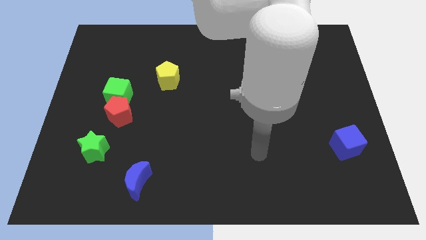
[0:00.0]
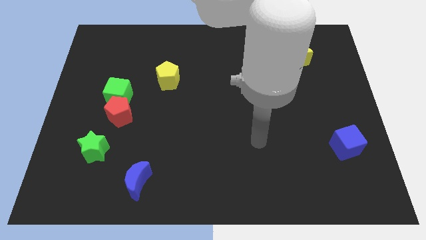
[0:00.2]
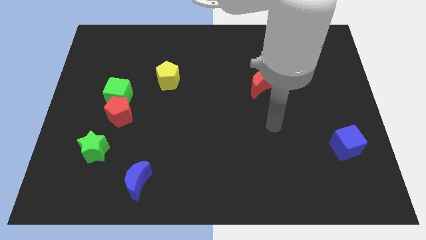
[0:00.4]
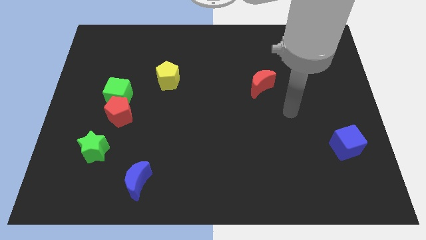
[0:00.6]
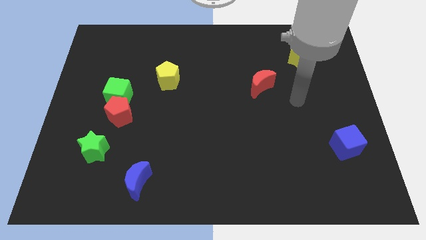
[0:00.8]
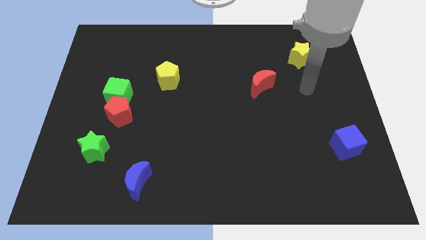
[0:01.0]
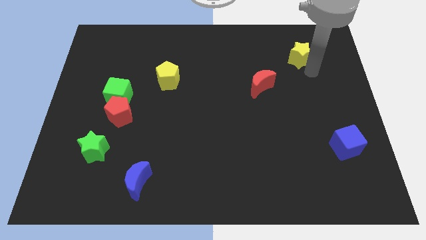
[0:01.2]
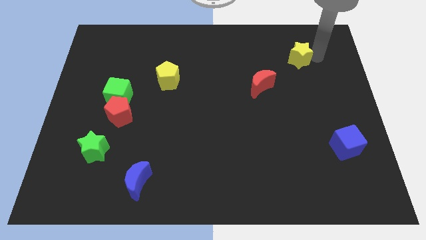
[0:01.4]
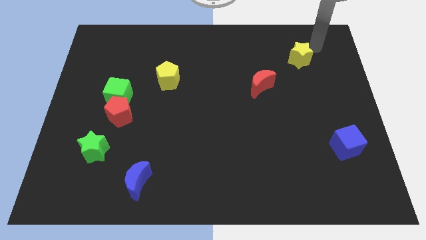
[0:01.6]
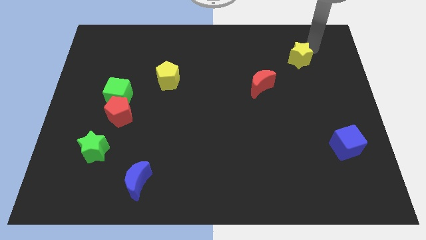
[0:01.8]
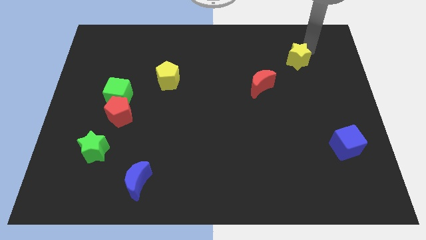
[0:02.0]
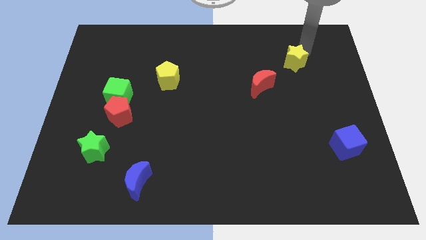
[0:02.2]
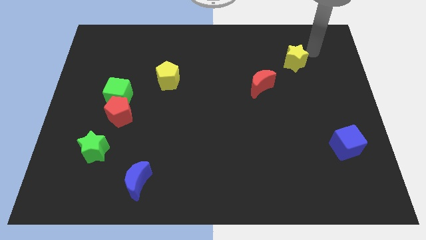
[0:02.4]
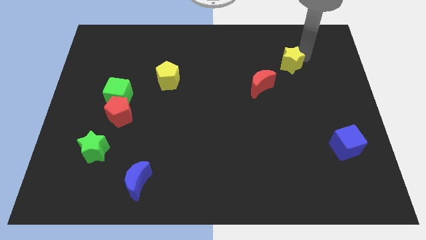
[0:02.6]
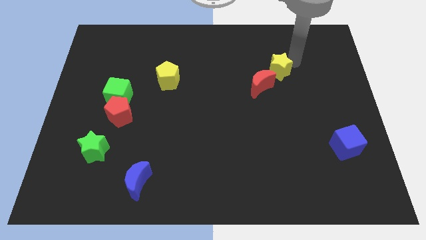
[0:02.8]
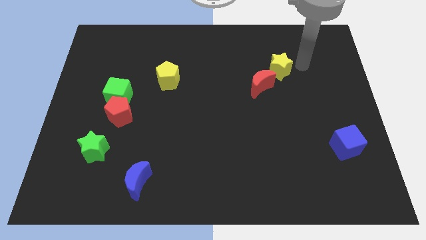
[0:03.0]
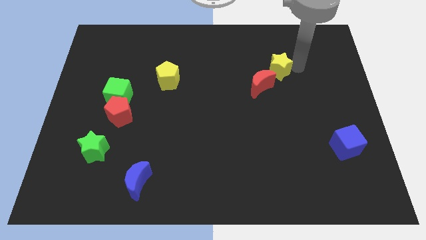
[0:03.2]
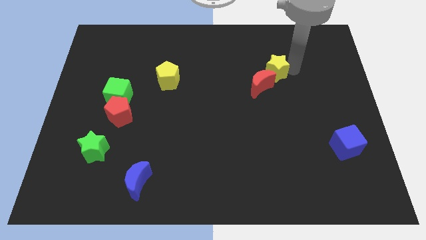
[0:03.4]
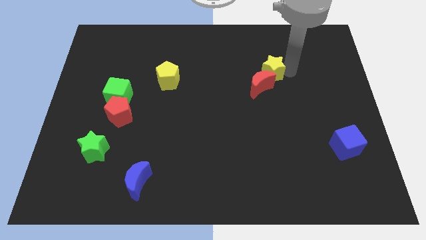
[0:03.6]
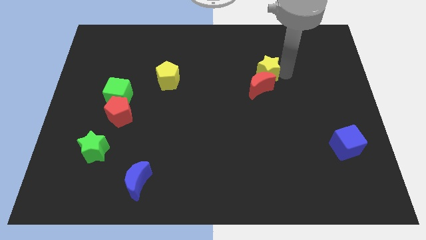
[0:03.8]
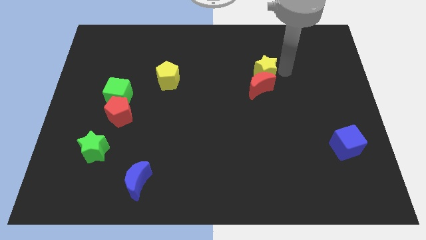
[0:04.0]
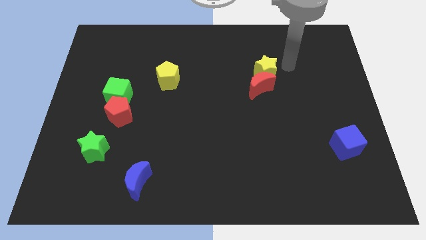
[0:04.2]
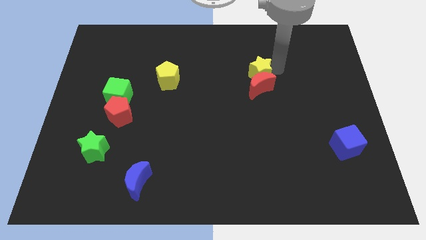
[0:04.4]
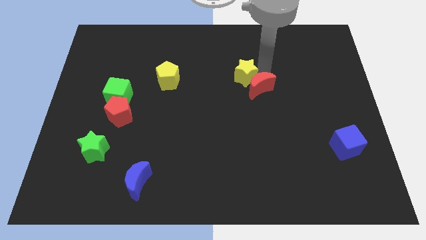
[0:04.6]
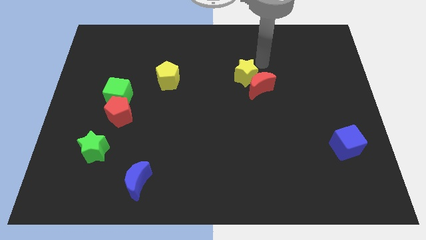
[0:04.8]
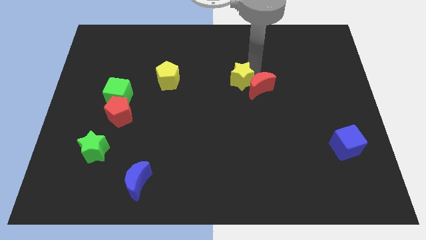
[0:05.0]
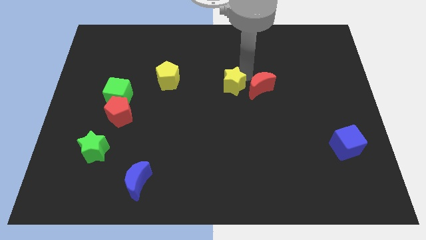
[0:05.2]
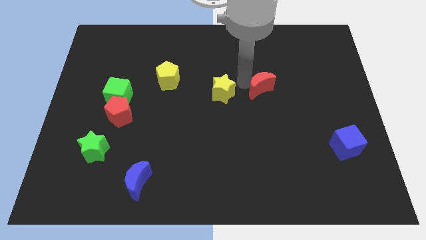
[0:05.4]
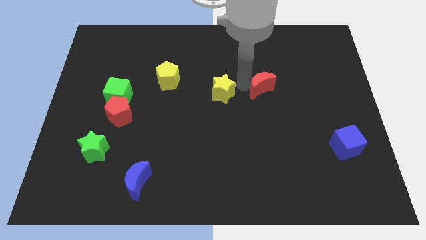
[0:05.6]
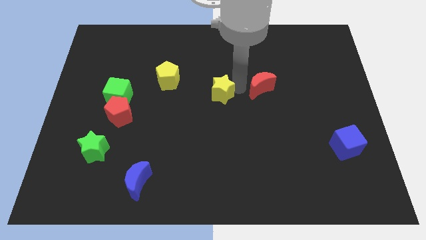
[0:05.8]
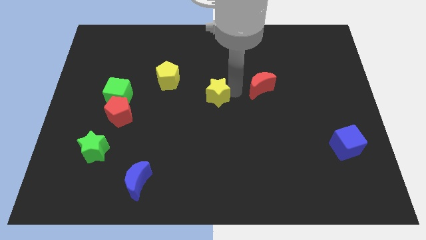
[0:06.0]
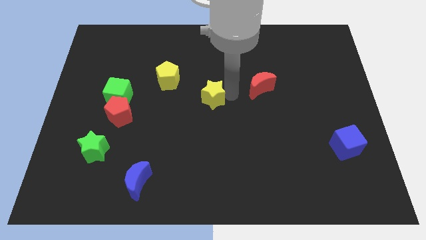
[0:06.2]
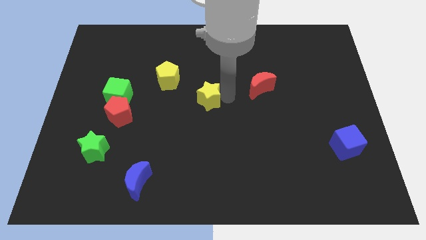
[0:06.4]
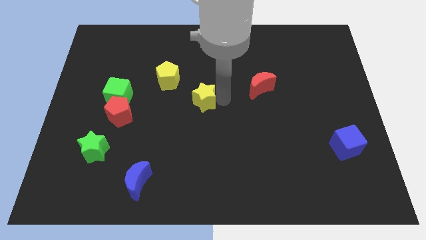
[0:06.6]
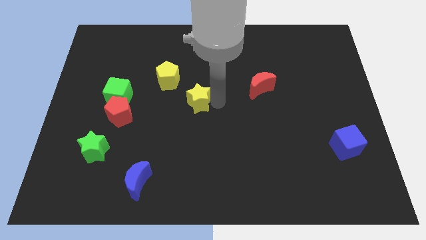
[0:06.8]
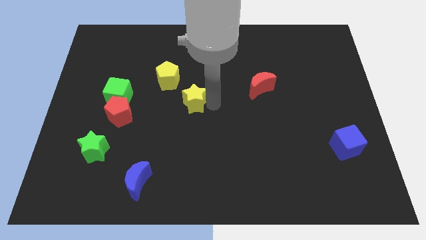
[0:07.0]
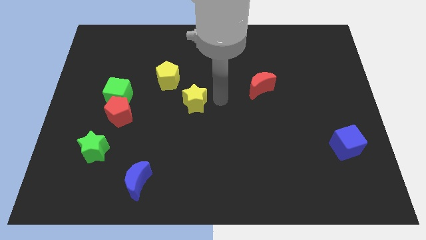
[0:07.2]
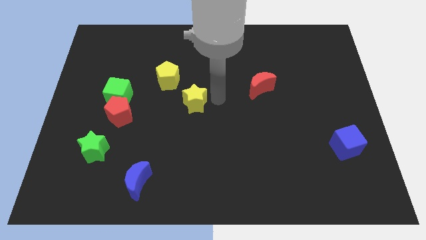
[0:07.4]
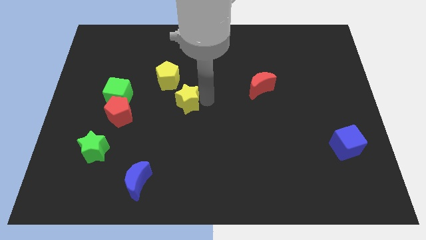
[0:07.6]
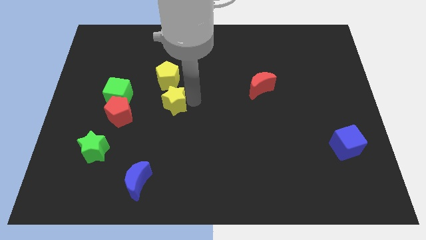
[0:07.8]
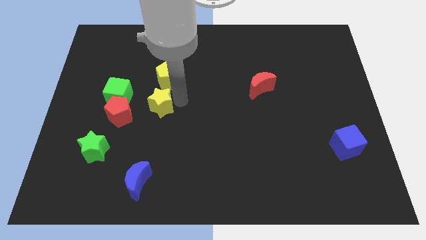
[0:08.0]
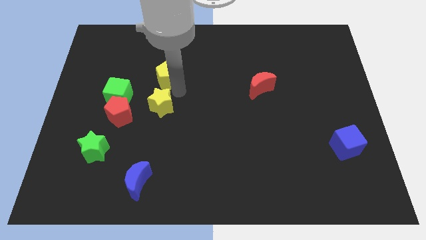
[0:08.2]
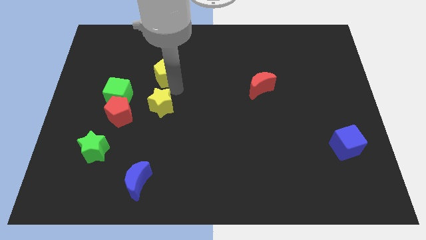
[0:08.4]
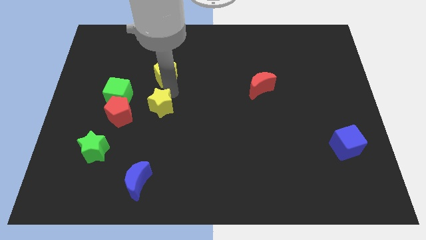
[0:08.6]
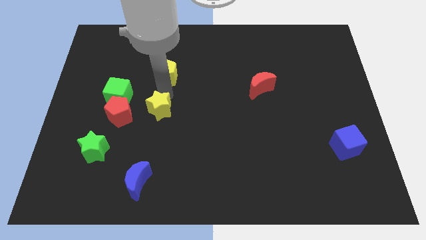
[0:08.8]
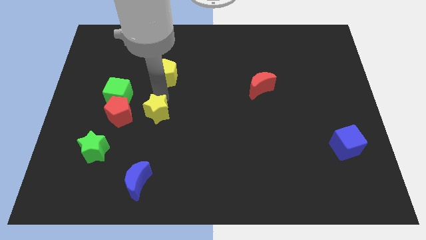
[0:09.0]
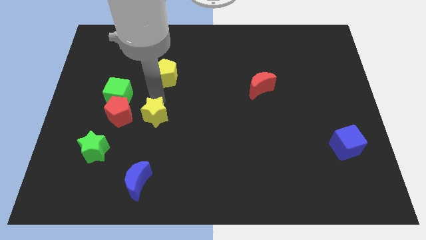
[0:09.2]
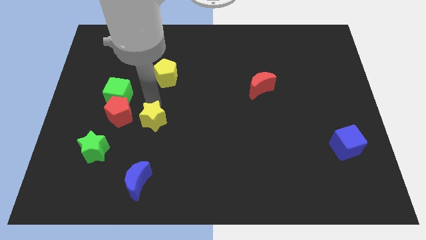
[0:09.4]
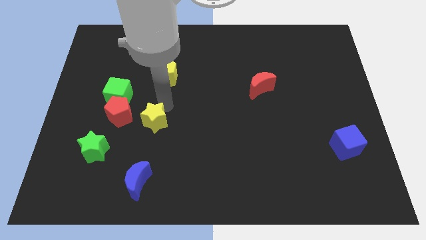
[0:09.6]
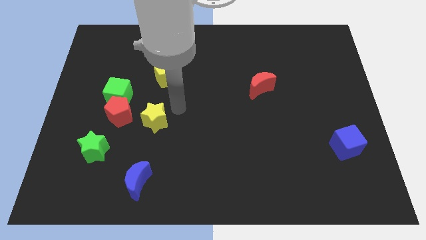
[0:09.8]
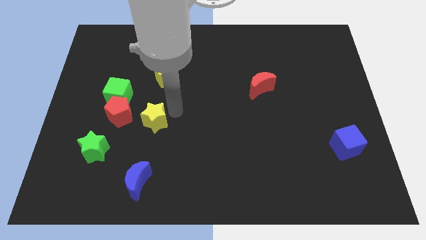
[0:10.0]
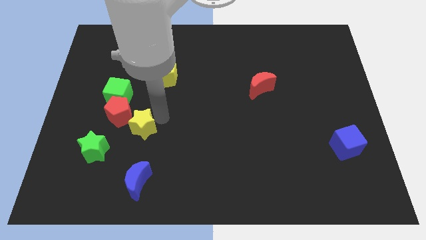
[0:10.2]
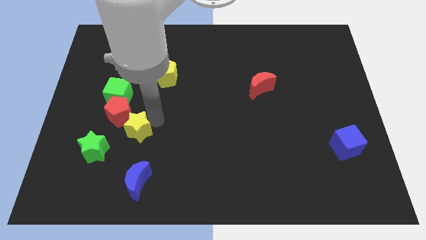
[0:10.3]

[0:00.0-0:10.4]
move the yellow star to the bottom side of the red pentagon

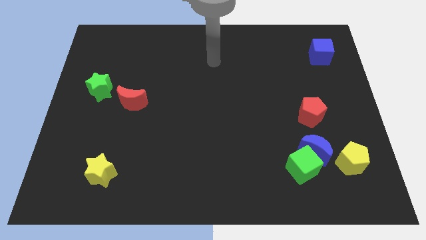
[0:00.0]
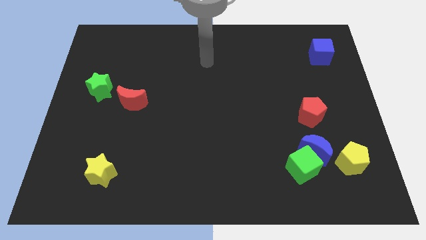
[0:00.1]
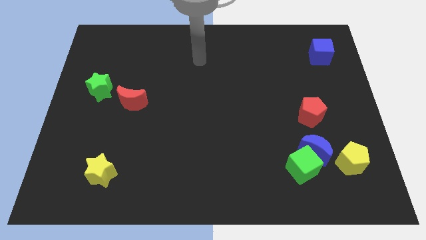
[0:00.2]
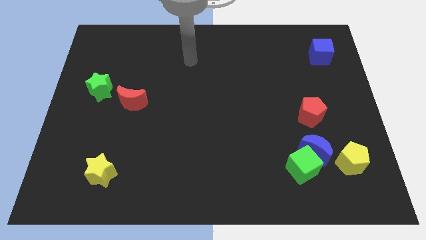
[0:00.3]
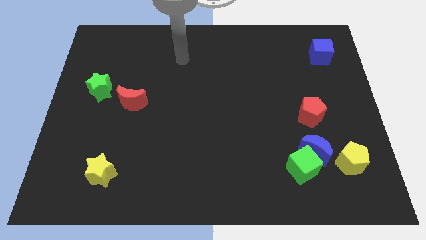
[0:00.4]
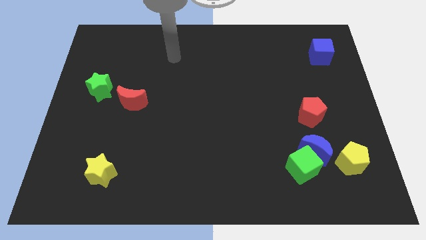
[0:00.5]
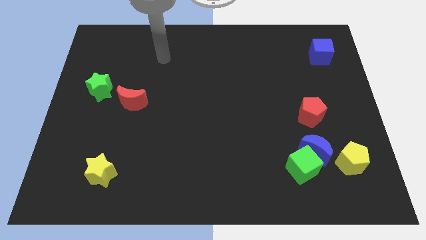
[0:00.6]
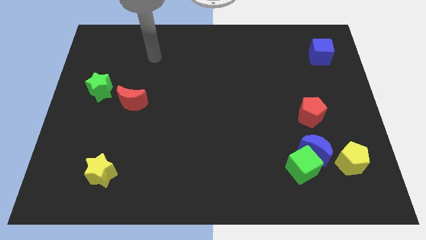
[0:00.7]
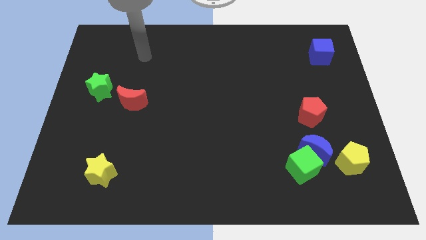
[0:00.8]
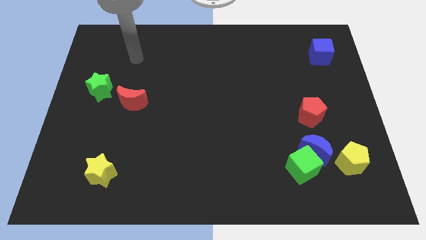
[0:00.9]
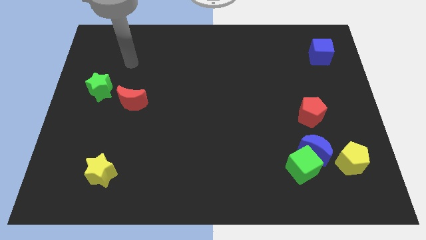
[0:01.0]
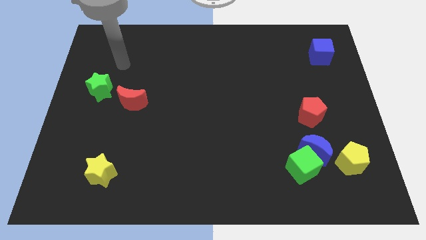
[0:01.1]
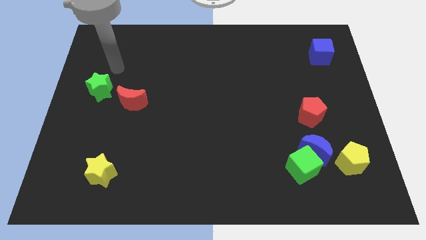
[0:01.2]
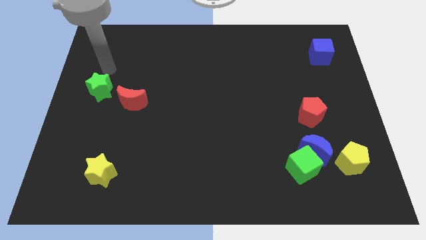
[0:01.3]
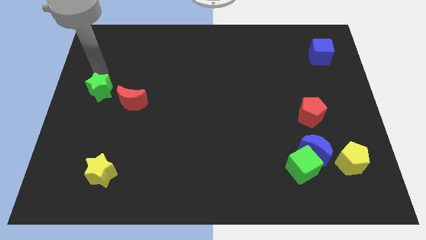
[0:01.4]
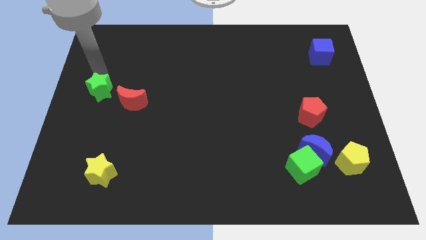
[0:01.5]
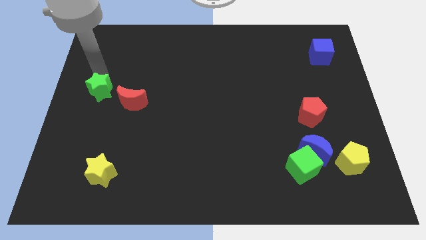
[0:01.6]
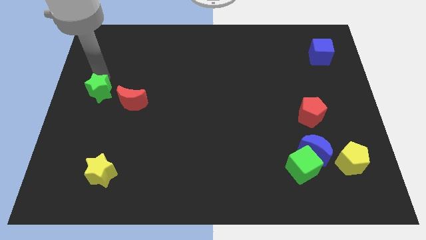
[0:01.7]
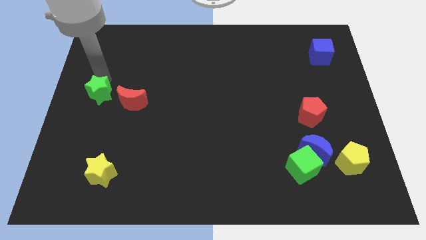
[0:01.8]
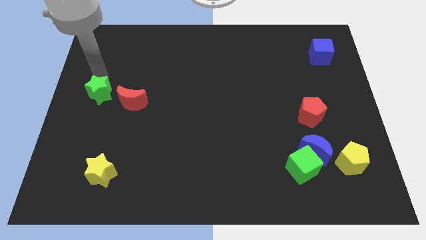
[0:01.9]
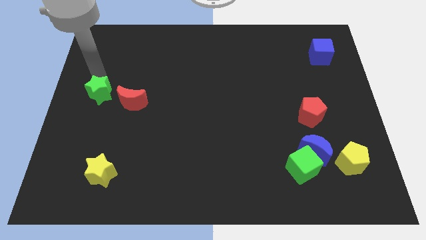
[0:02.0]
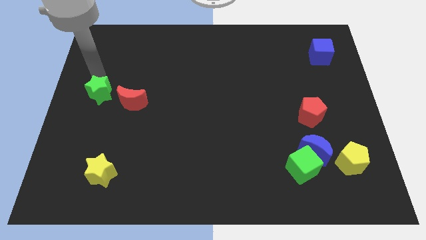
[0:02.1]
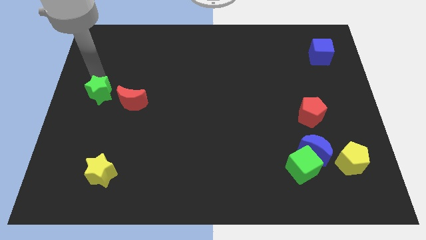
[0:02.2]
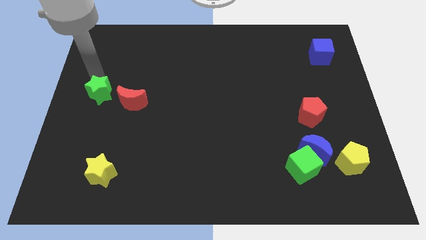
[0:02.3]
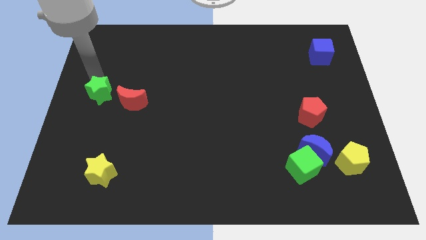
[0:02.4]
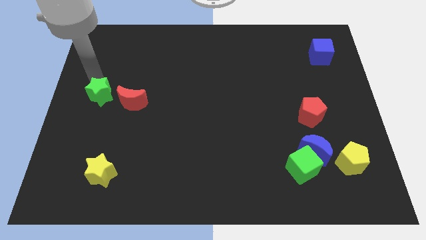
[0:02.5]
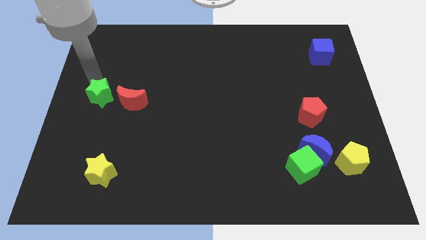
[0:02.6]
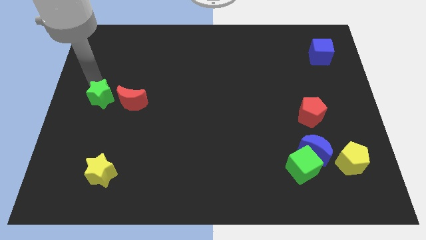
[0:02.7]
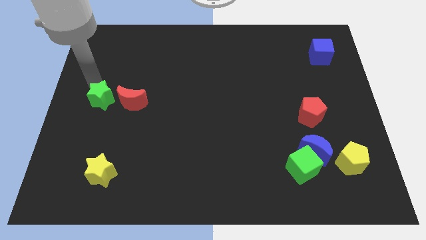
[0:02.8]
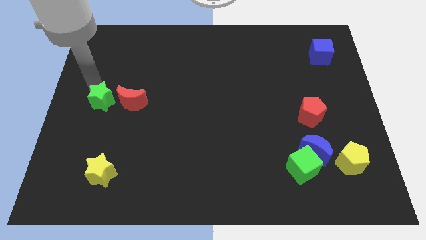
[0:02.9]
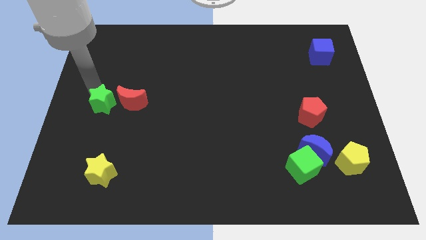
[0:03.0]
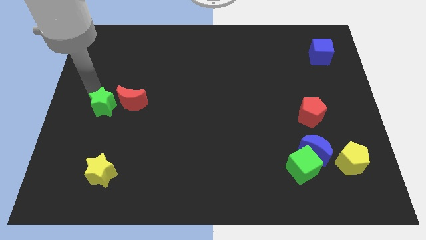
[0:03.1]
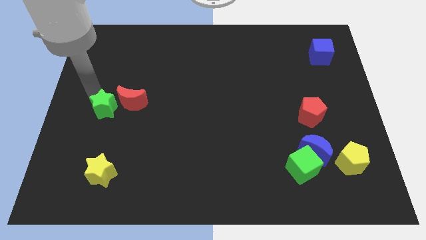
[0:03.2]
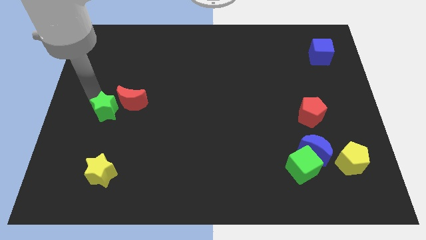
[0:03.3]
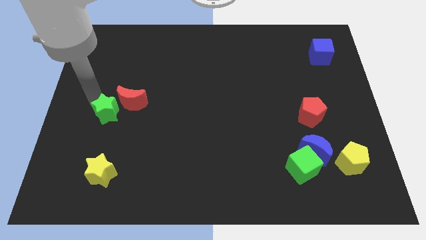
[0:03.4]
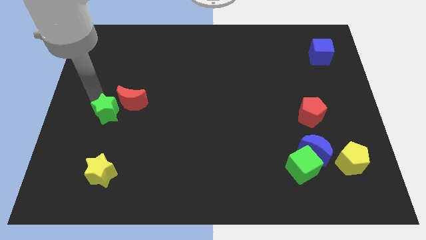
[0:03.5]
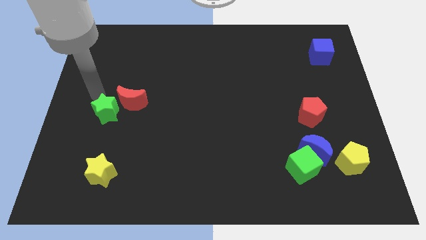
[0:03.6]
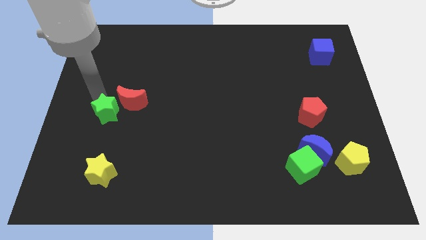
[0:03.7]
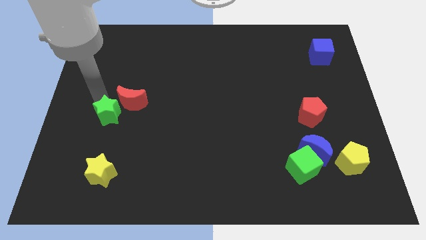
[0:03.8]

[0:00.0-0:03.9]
push the green star below the red moon
